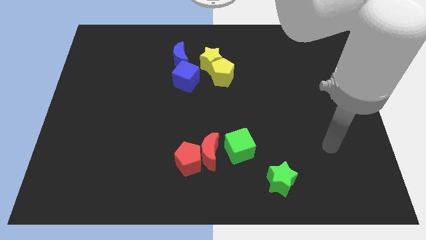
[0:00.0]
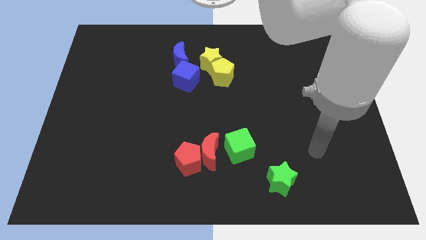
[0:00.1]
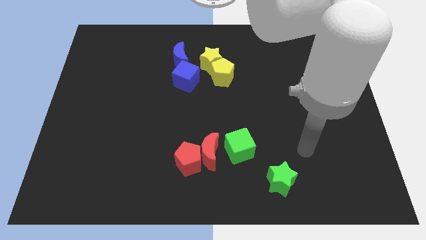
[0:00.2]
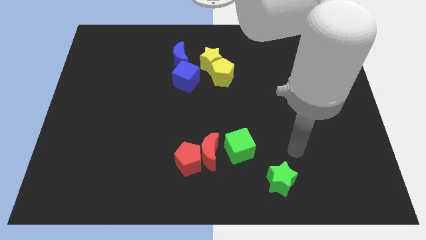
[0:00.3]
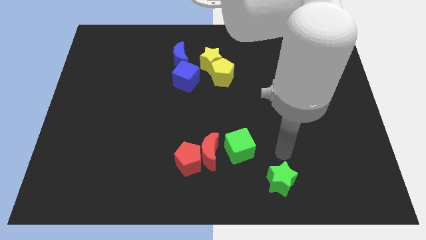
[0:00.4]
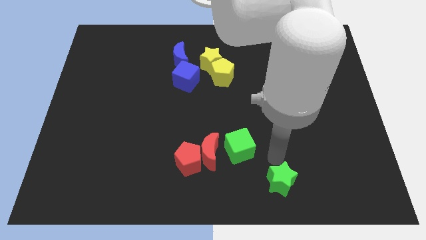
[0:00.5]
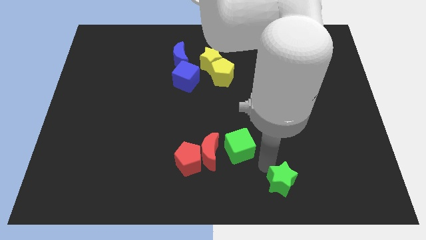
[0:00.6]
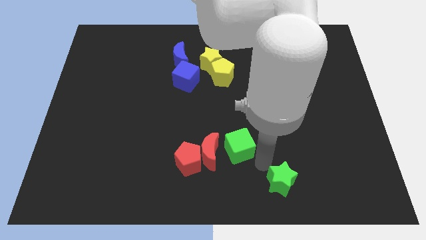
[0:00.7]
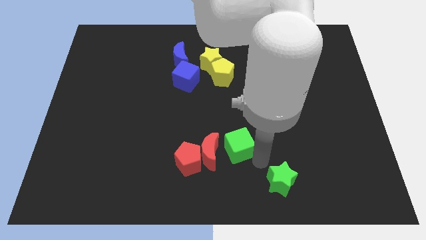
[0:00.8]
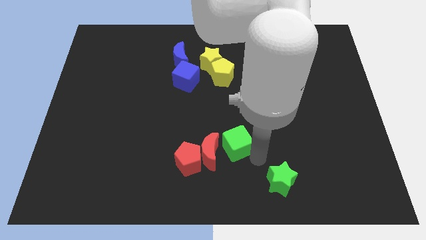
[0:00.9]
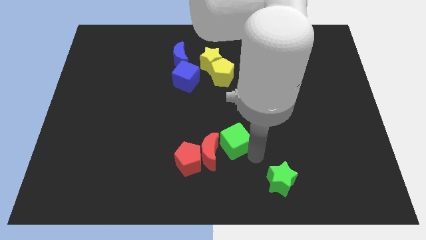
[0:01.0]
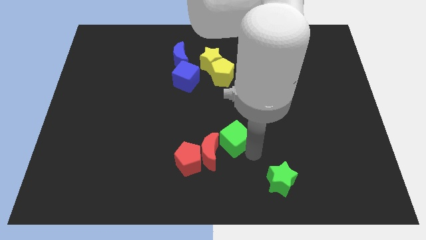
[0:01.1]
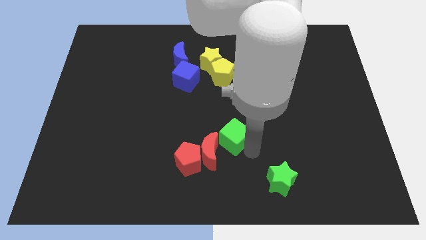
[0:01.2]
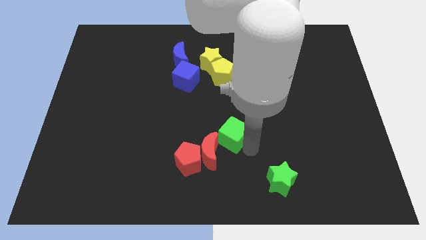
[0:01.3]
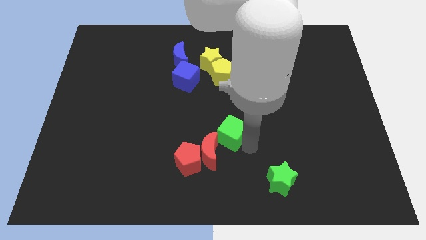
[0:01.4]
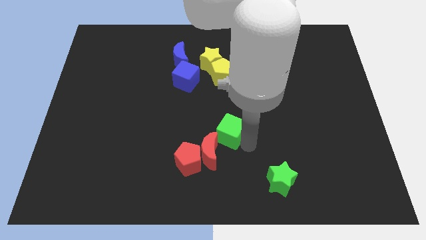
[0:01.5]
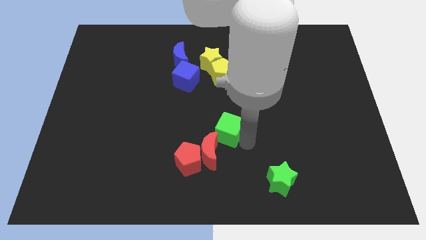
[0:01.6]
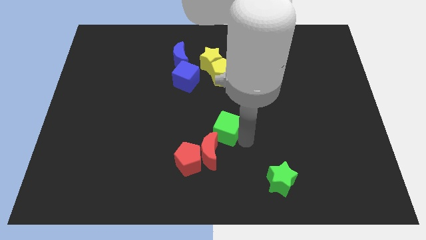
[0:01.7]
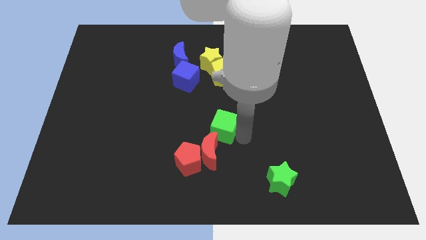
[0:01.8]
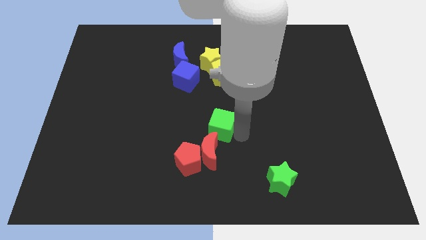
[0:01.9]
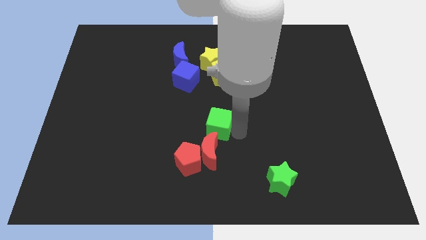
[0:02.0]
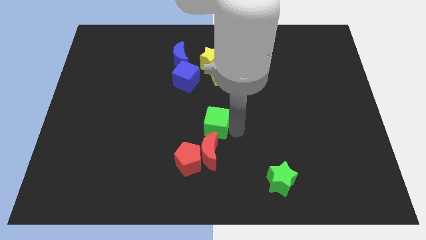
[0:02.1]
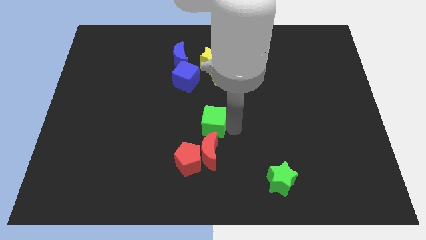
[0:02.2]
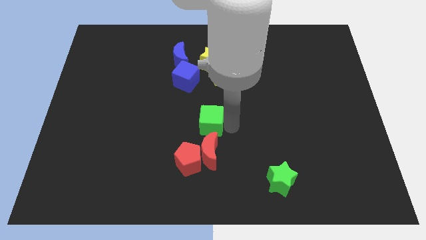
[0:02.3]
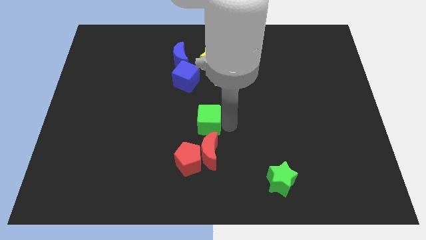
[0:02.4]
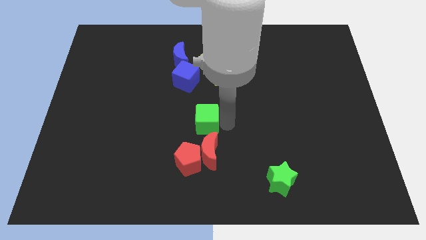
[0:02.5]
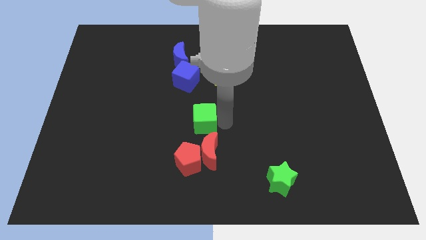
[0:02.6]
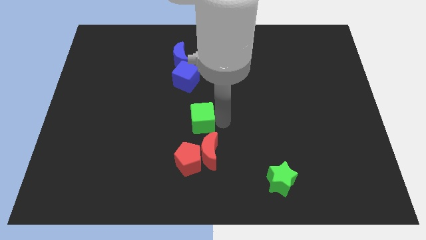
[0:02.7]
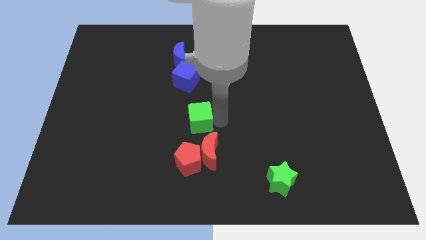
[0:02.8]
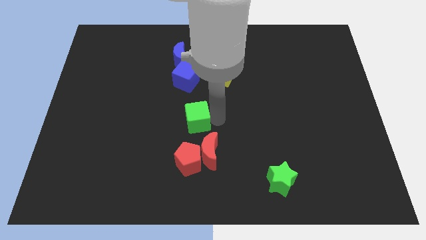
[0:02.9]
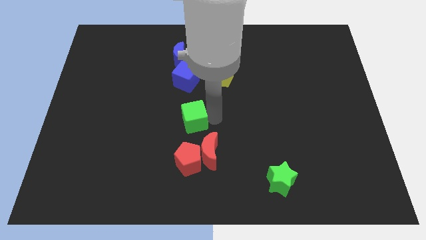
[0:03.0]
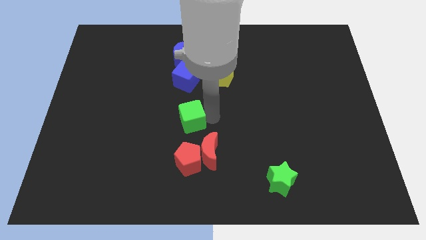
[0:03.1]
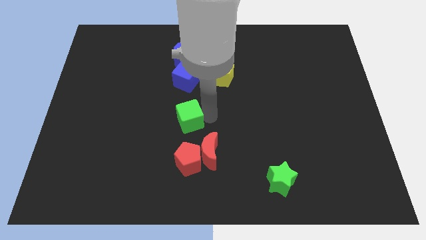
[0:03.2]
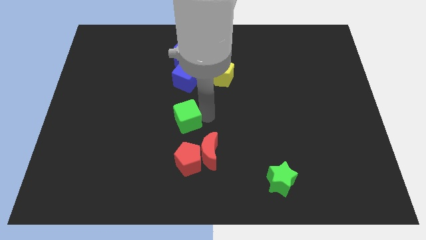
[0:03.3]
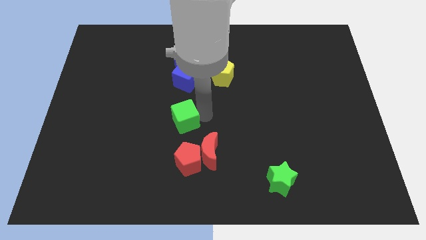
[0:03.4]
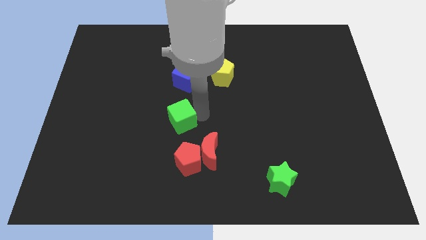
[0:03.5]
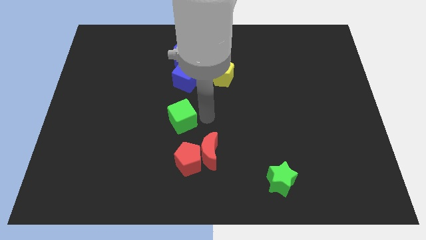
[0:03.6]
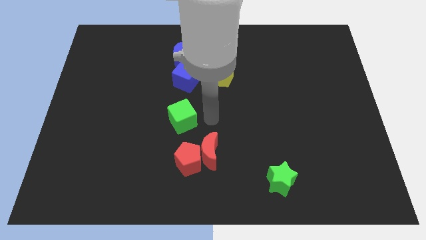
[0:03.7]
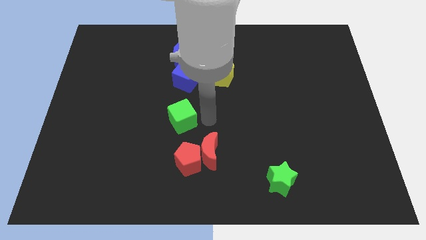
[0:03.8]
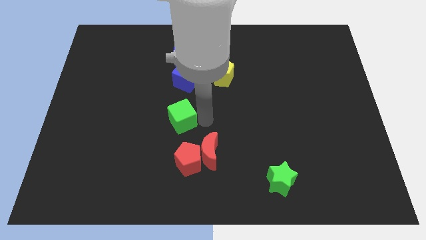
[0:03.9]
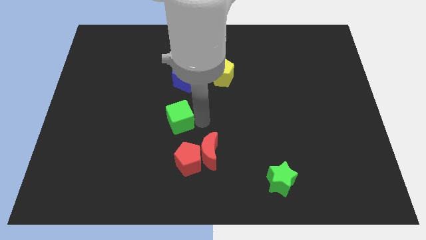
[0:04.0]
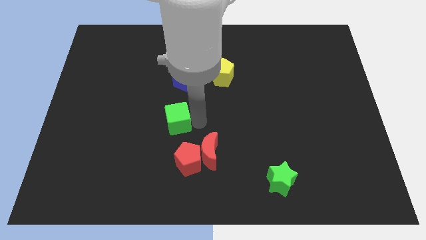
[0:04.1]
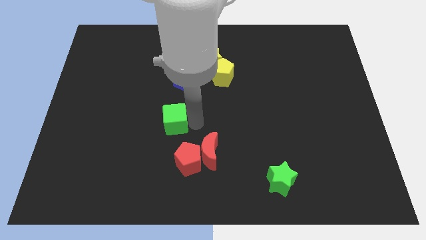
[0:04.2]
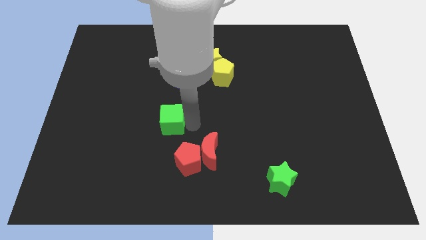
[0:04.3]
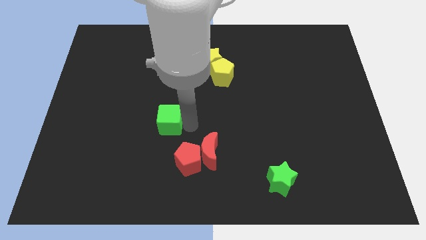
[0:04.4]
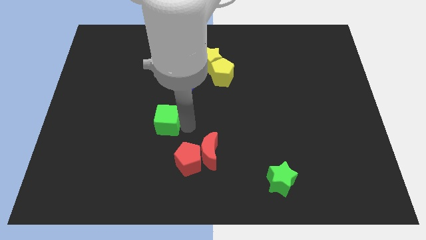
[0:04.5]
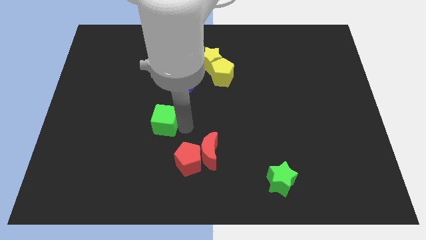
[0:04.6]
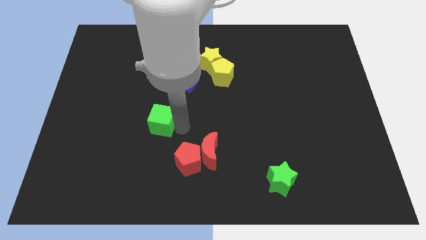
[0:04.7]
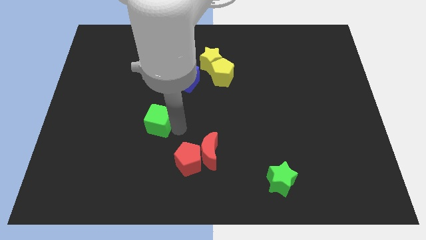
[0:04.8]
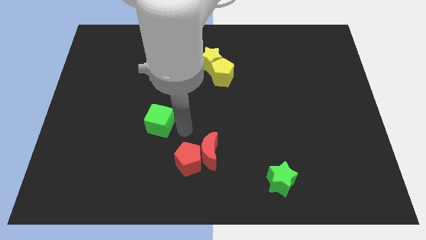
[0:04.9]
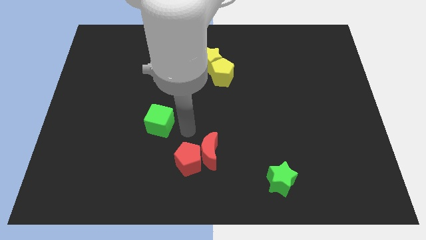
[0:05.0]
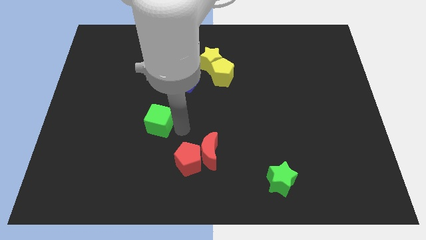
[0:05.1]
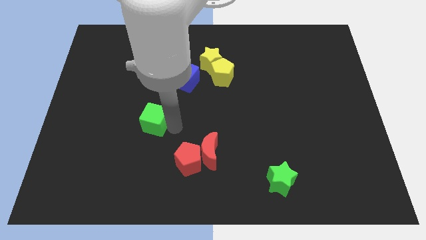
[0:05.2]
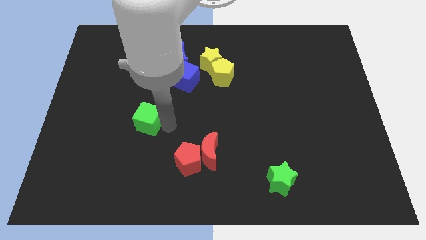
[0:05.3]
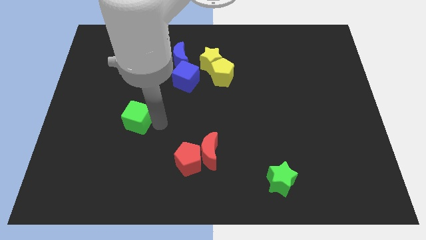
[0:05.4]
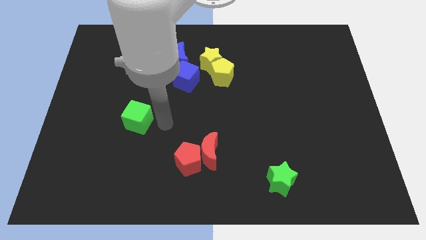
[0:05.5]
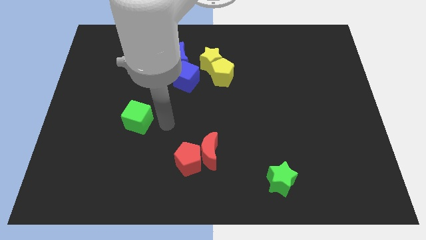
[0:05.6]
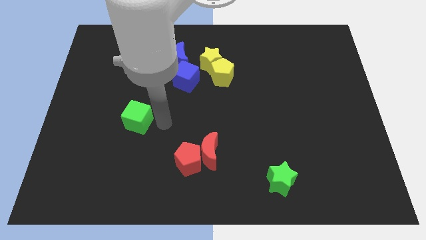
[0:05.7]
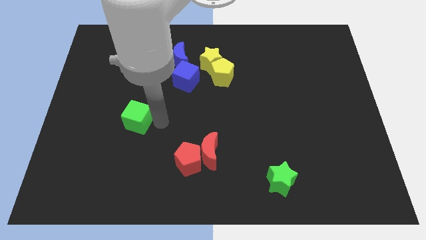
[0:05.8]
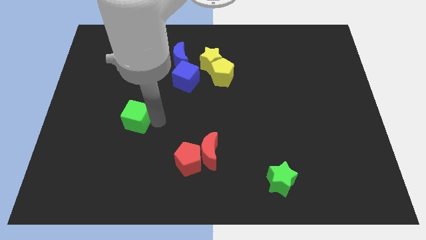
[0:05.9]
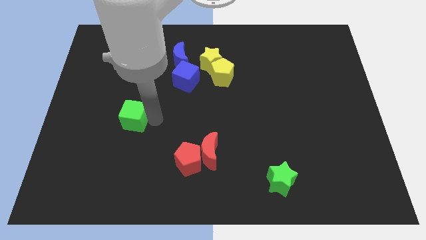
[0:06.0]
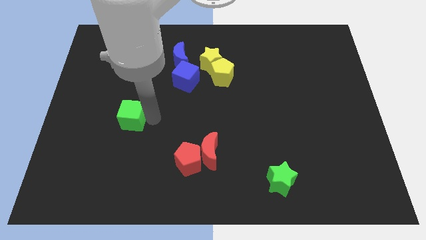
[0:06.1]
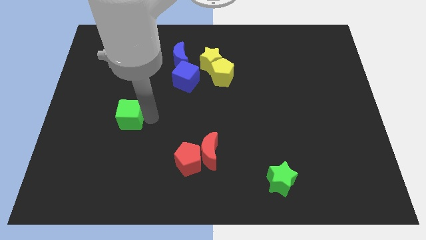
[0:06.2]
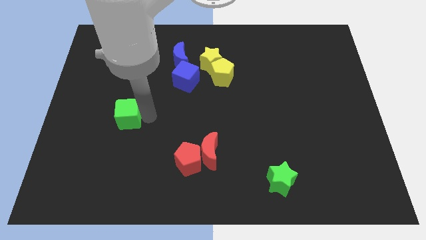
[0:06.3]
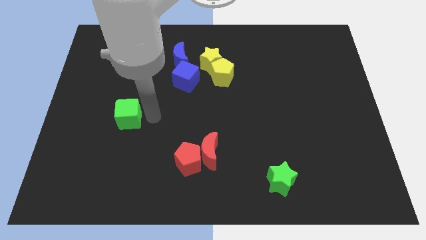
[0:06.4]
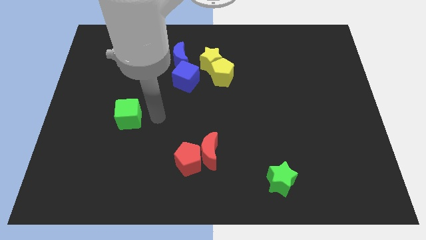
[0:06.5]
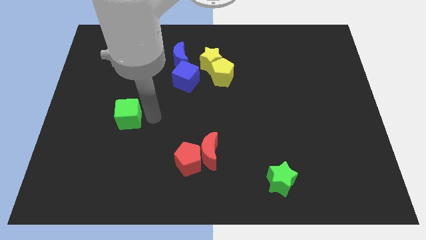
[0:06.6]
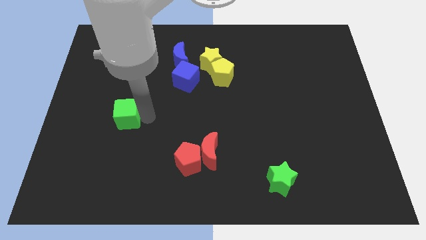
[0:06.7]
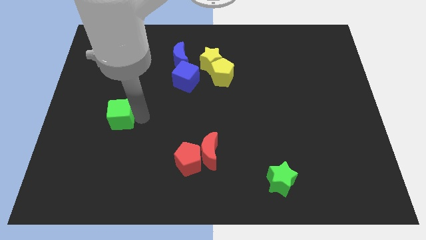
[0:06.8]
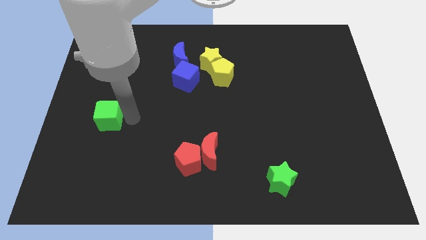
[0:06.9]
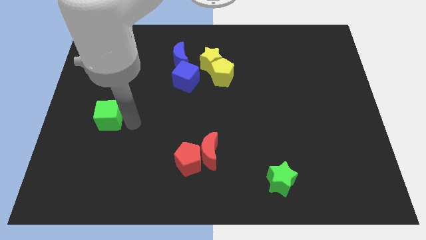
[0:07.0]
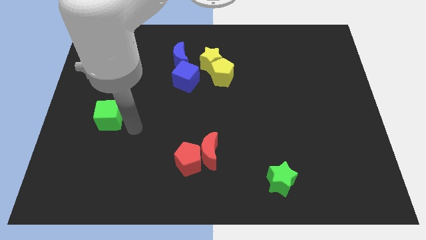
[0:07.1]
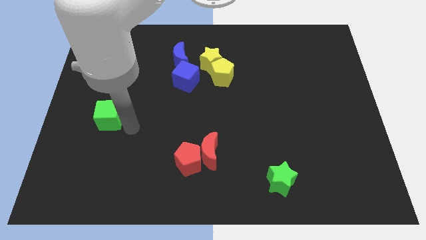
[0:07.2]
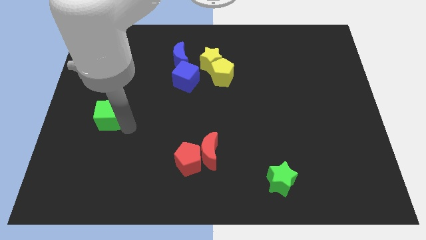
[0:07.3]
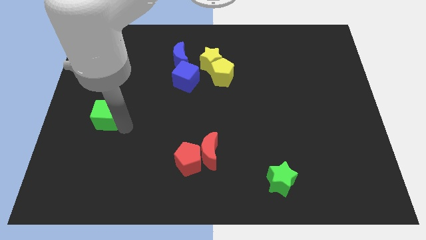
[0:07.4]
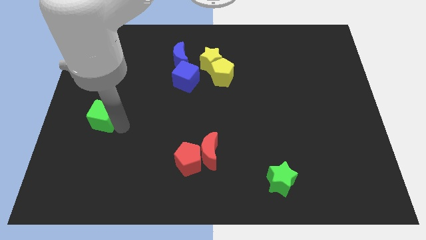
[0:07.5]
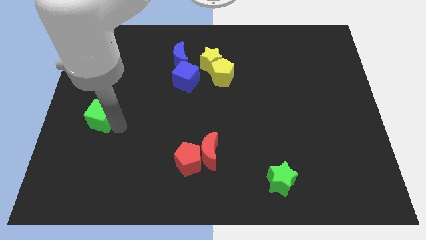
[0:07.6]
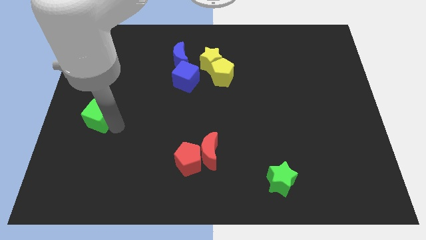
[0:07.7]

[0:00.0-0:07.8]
move the green cube to the left side of the board
